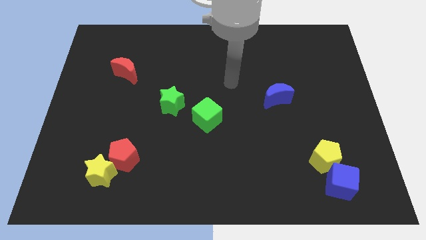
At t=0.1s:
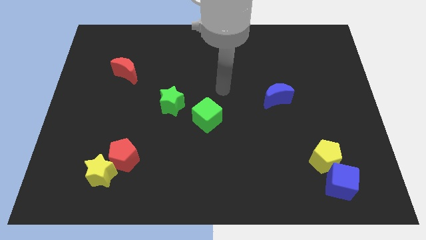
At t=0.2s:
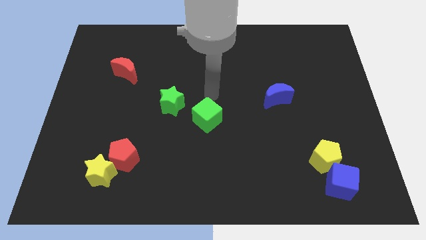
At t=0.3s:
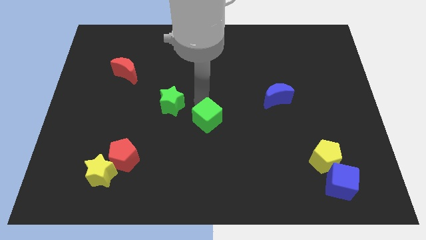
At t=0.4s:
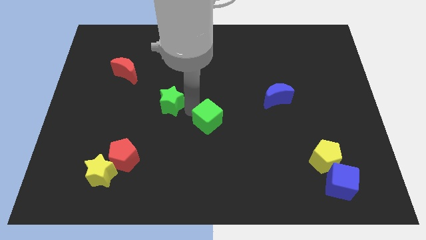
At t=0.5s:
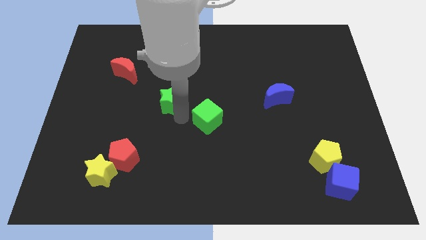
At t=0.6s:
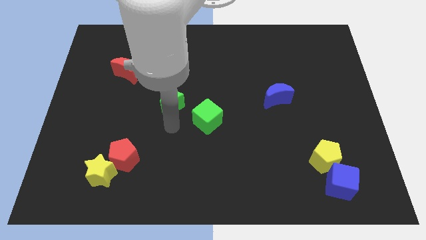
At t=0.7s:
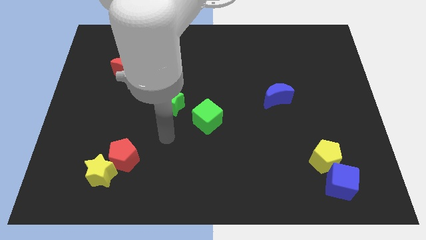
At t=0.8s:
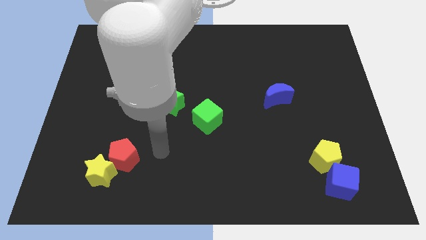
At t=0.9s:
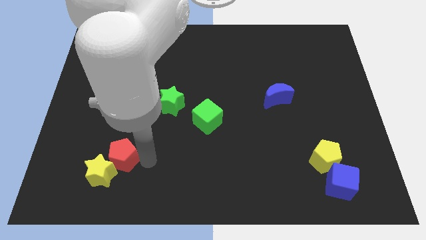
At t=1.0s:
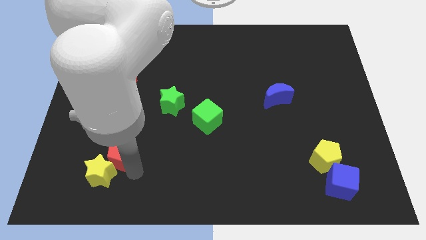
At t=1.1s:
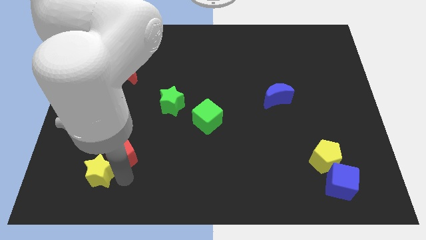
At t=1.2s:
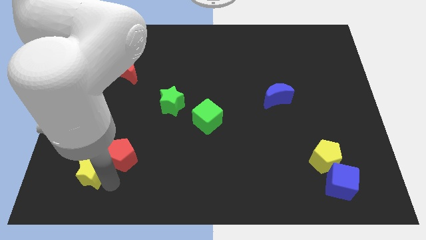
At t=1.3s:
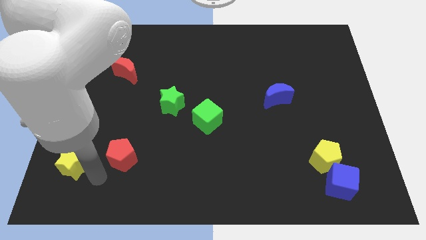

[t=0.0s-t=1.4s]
separate the red pentagon from the yellow star

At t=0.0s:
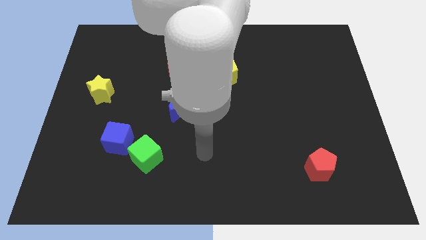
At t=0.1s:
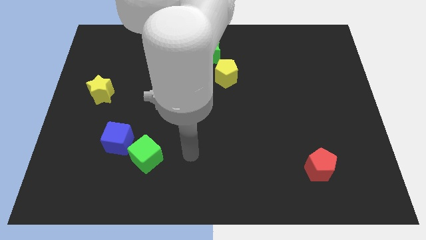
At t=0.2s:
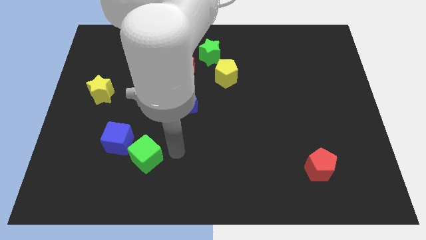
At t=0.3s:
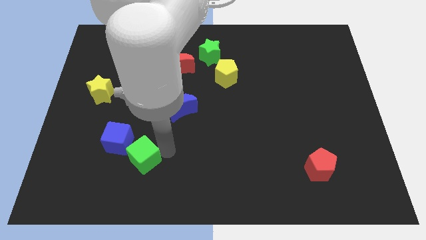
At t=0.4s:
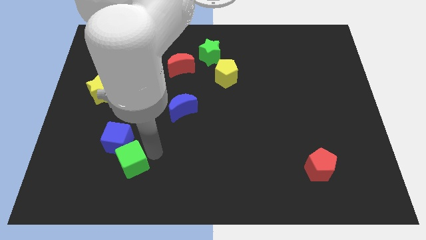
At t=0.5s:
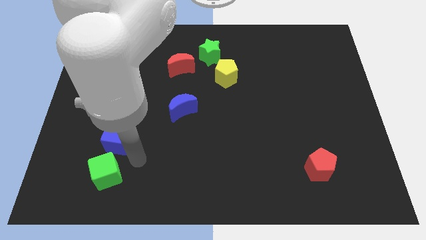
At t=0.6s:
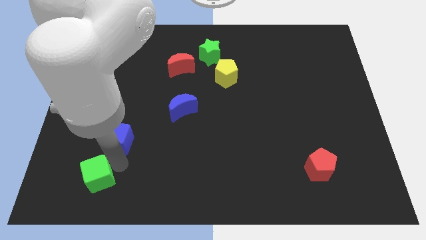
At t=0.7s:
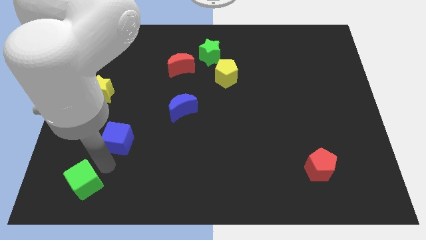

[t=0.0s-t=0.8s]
separate the blue cube from the green cube

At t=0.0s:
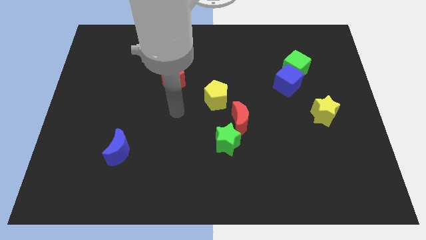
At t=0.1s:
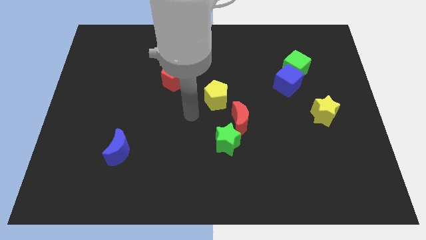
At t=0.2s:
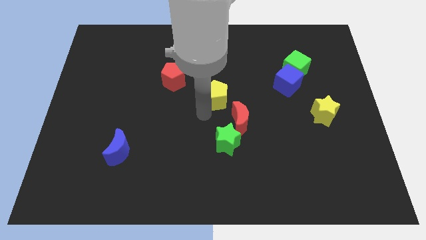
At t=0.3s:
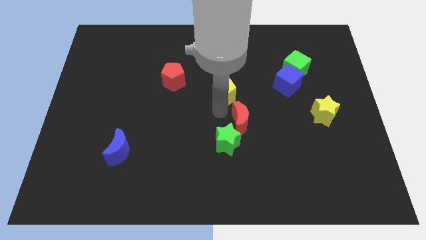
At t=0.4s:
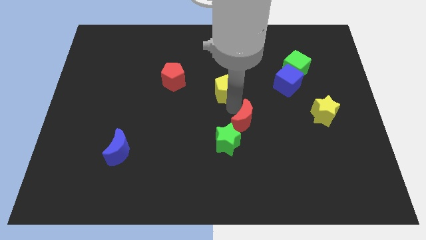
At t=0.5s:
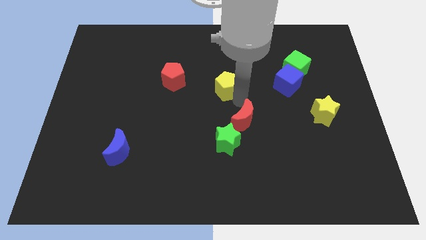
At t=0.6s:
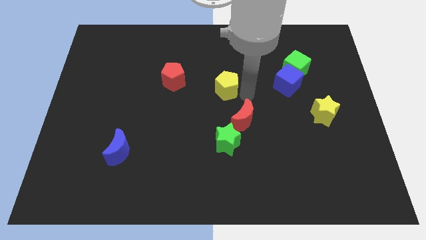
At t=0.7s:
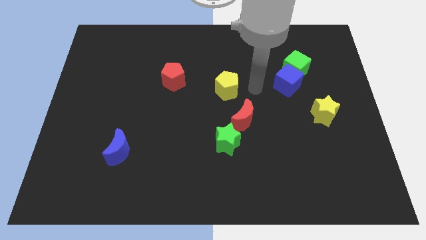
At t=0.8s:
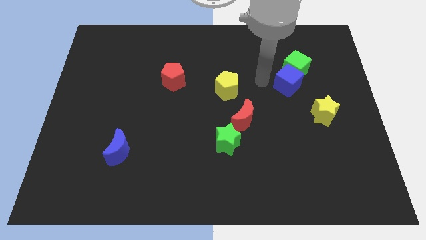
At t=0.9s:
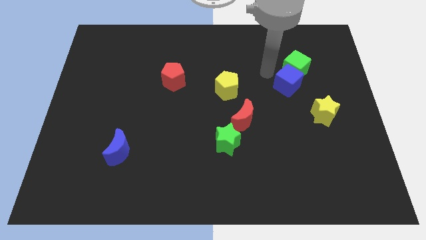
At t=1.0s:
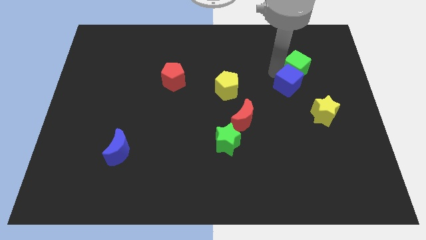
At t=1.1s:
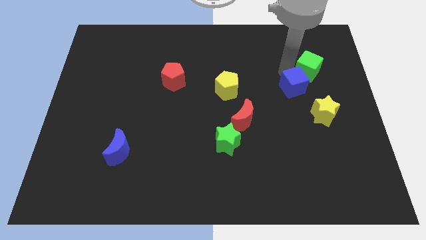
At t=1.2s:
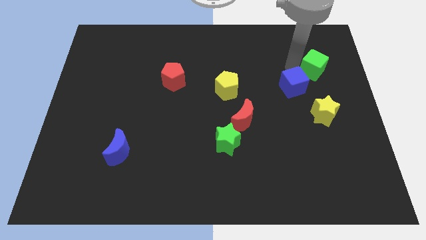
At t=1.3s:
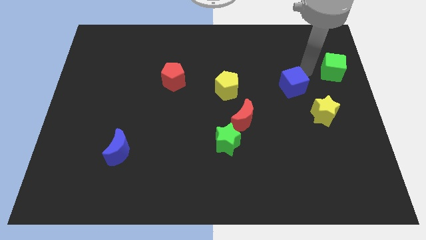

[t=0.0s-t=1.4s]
move the blue cube away from the green cube

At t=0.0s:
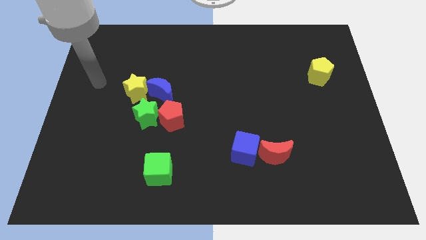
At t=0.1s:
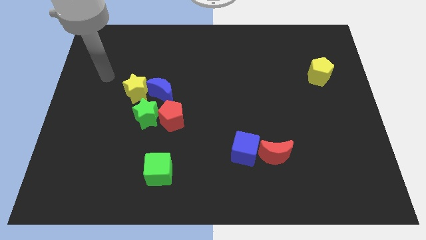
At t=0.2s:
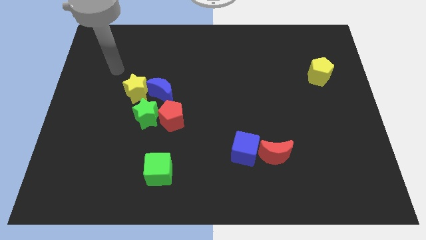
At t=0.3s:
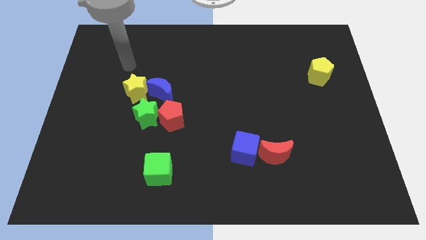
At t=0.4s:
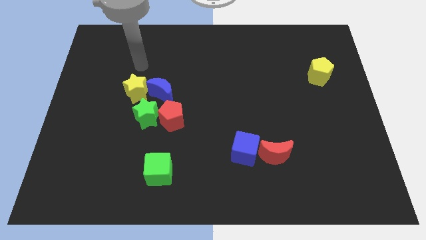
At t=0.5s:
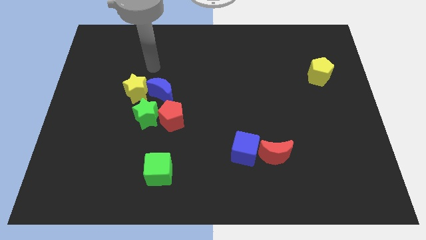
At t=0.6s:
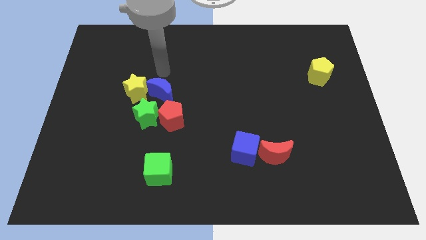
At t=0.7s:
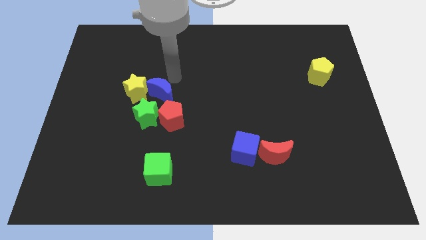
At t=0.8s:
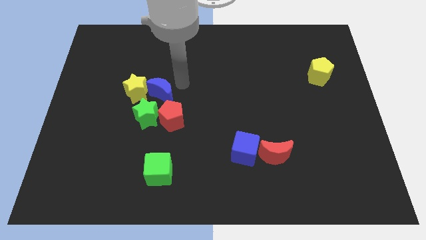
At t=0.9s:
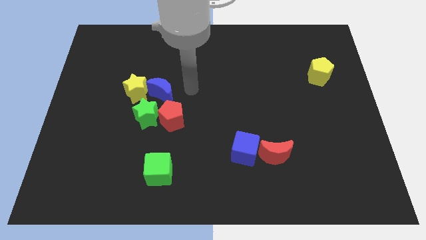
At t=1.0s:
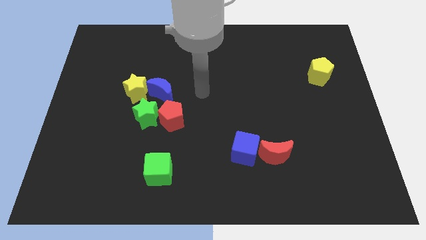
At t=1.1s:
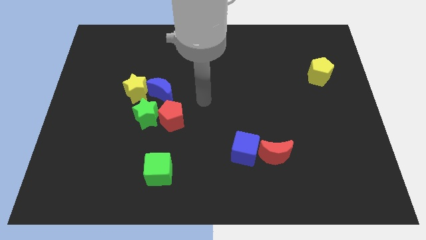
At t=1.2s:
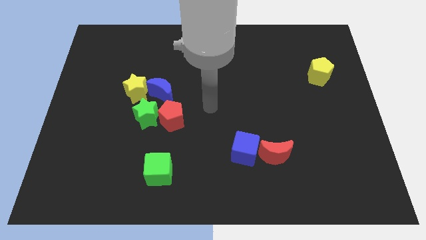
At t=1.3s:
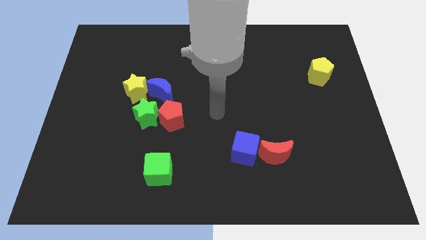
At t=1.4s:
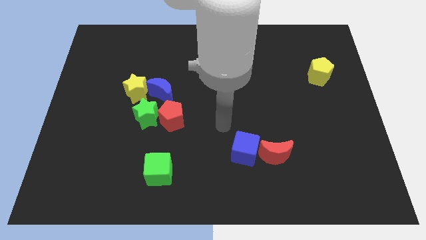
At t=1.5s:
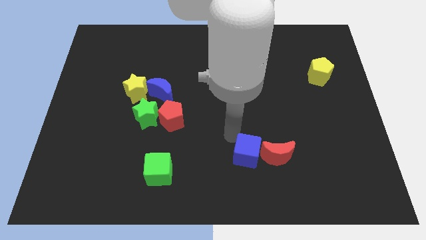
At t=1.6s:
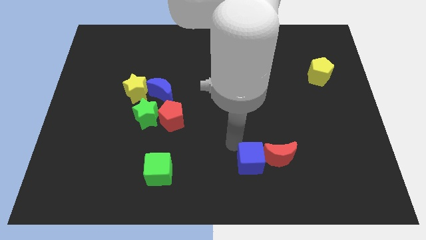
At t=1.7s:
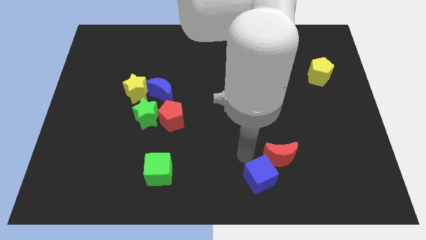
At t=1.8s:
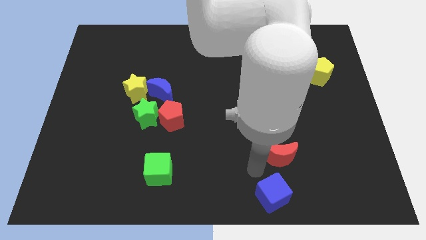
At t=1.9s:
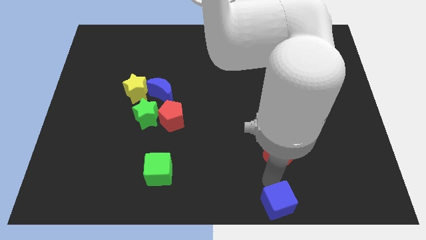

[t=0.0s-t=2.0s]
separate the red moon from the blue cube

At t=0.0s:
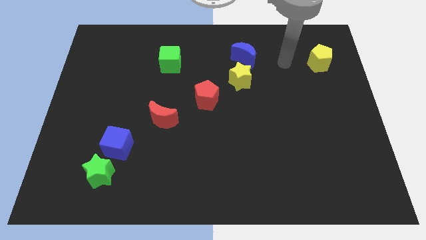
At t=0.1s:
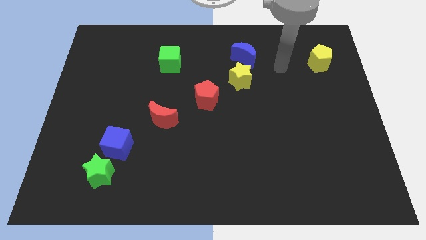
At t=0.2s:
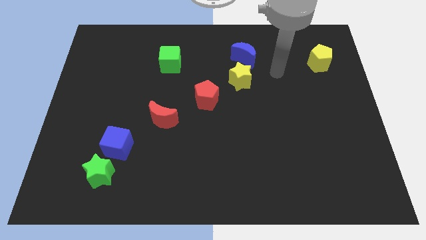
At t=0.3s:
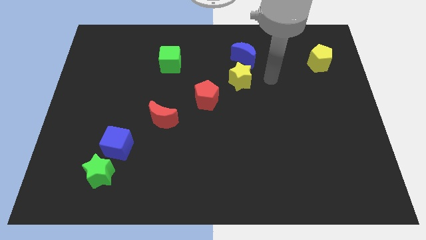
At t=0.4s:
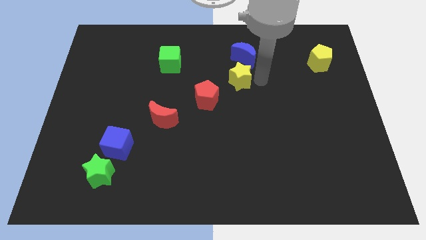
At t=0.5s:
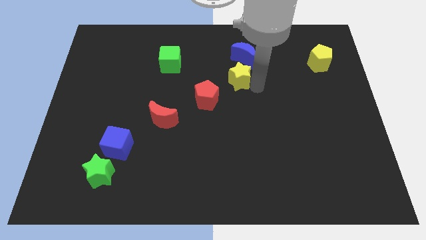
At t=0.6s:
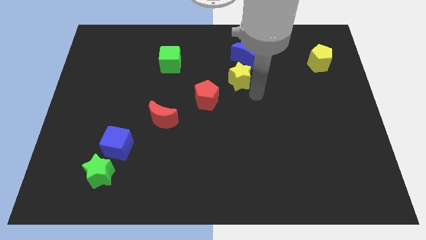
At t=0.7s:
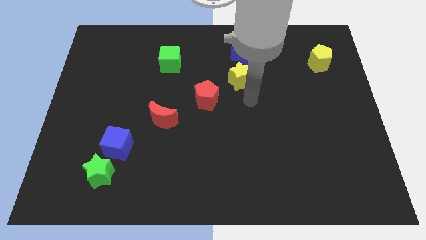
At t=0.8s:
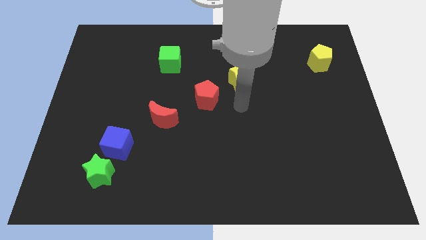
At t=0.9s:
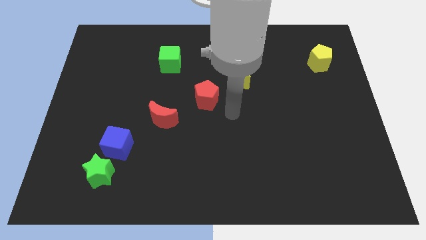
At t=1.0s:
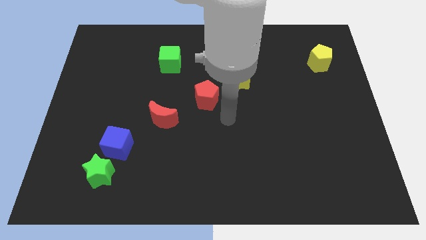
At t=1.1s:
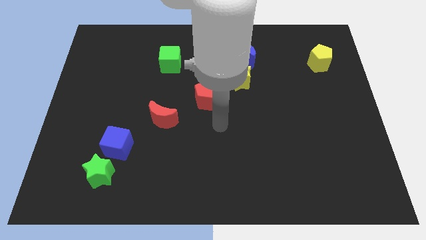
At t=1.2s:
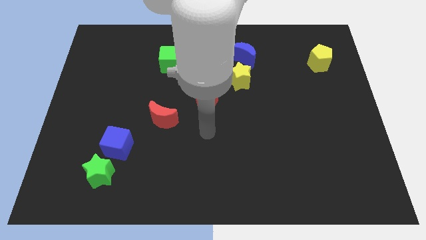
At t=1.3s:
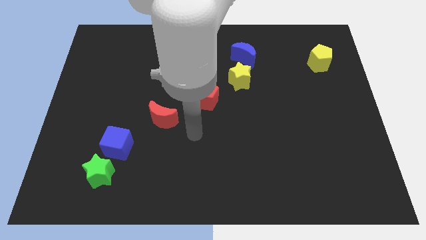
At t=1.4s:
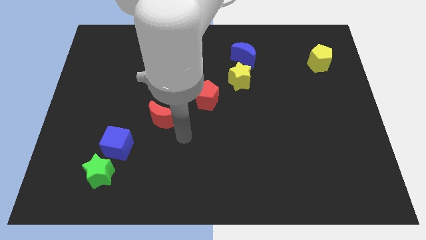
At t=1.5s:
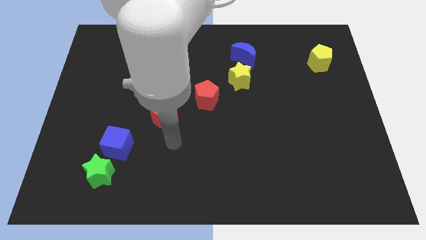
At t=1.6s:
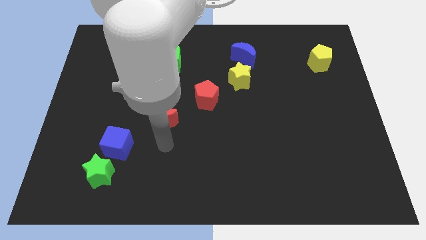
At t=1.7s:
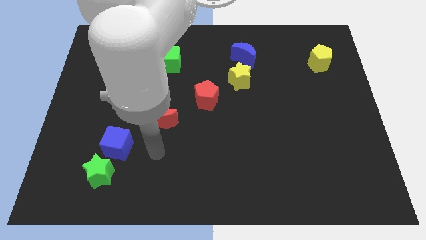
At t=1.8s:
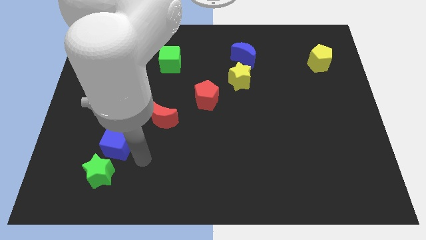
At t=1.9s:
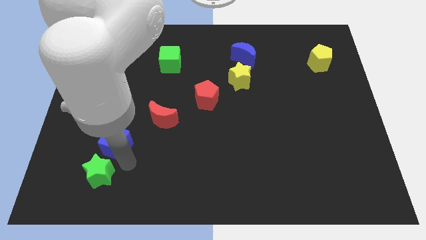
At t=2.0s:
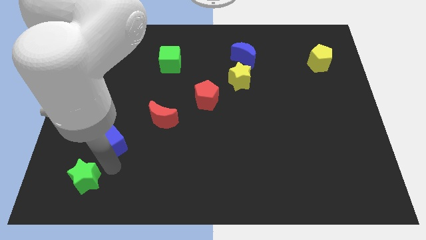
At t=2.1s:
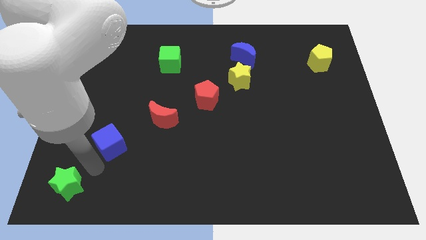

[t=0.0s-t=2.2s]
separate the blue cube from the green star

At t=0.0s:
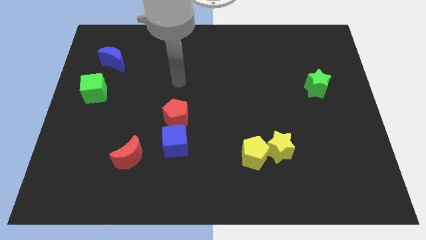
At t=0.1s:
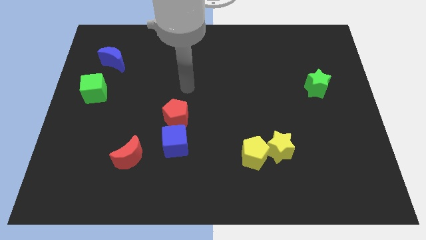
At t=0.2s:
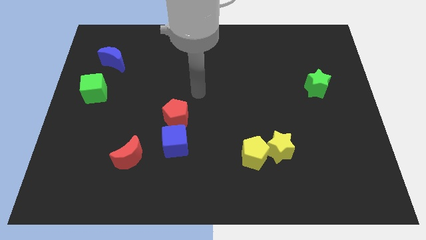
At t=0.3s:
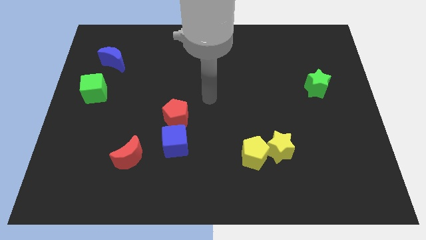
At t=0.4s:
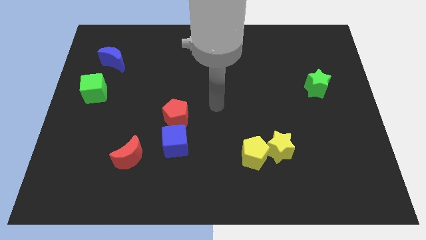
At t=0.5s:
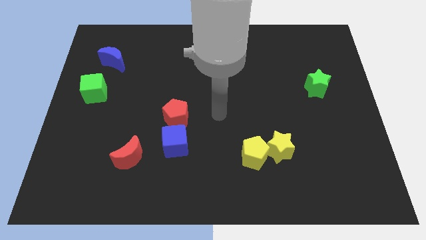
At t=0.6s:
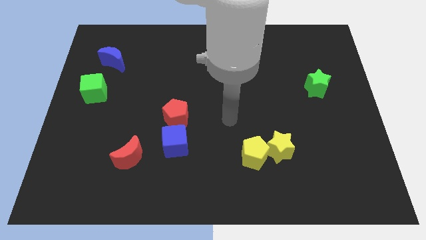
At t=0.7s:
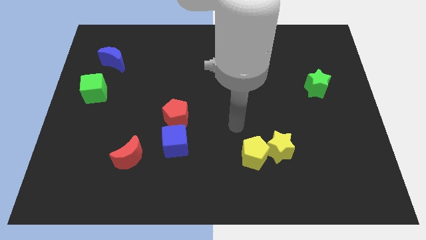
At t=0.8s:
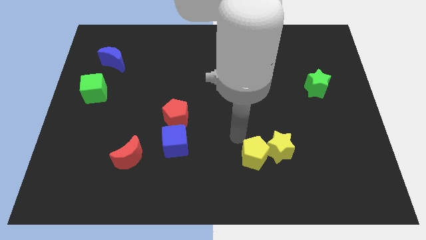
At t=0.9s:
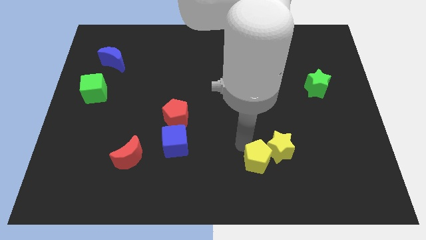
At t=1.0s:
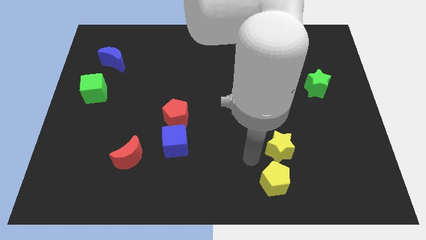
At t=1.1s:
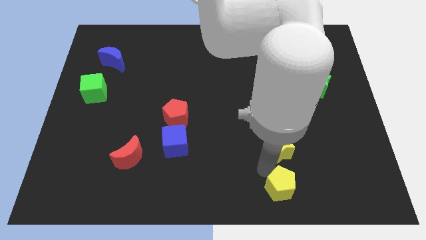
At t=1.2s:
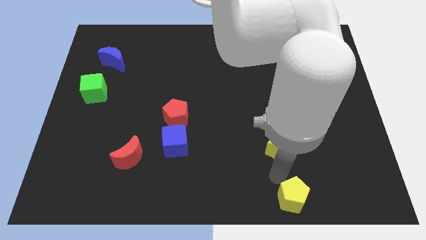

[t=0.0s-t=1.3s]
move the yellow star away from the yellow pentagon

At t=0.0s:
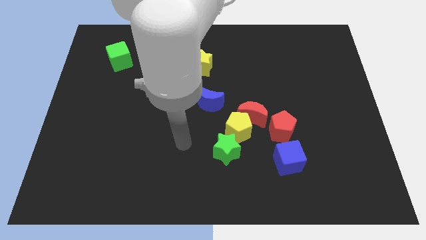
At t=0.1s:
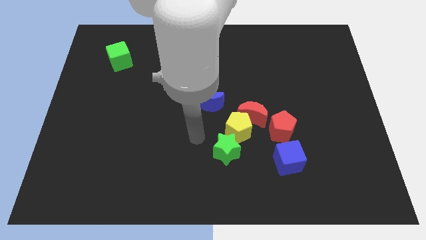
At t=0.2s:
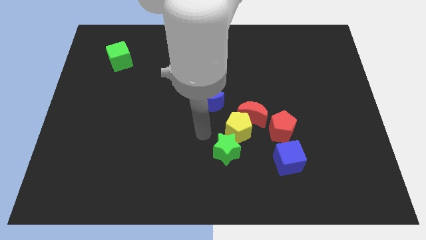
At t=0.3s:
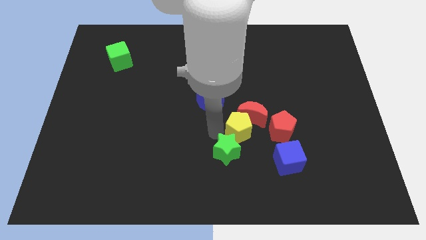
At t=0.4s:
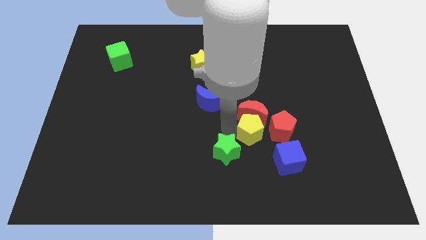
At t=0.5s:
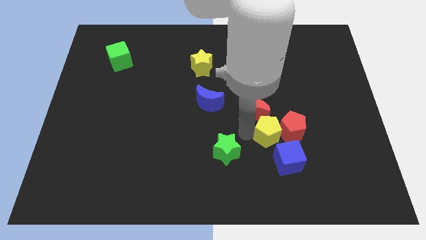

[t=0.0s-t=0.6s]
move the green star away from the yellow pentagon
